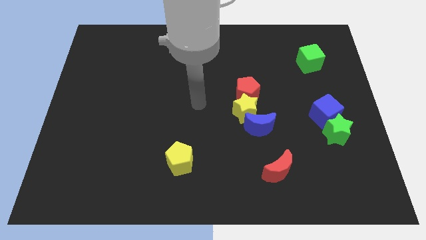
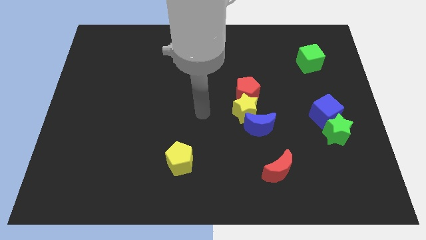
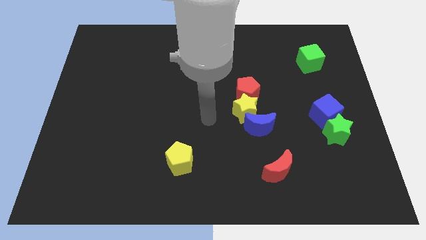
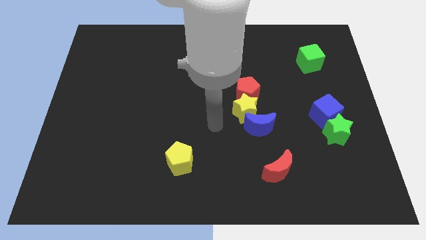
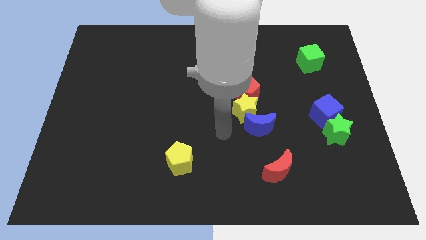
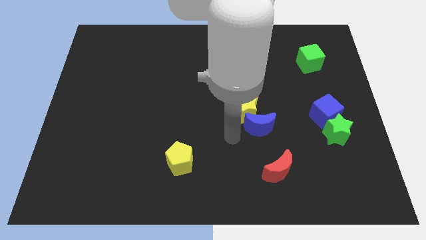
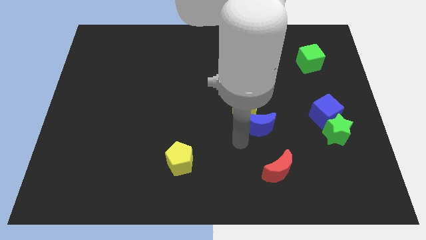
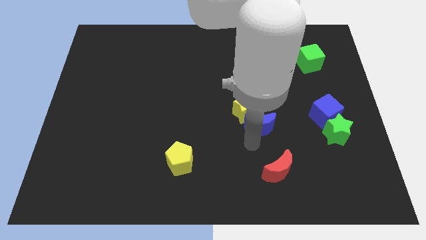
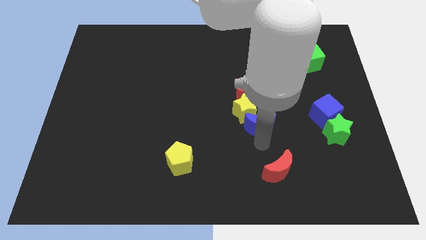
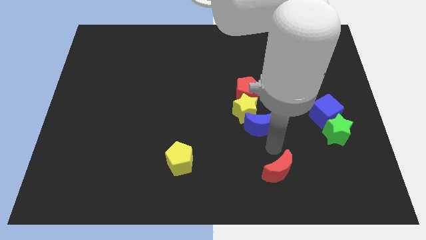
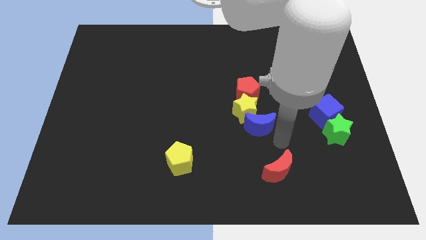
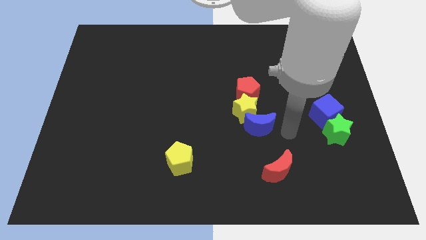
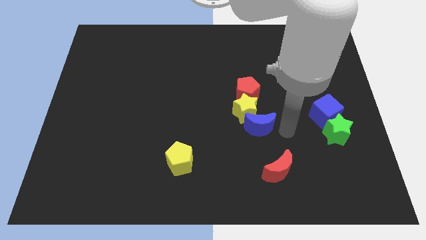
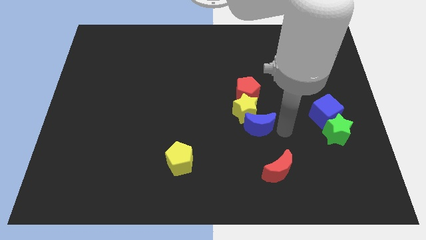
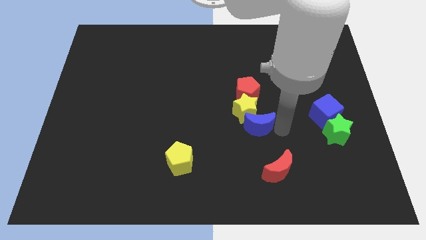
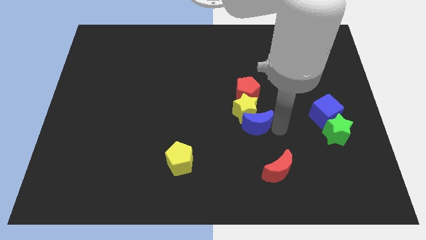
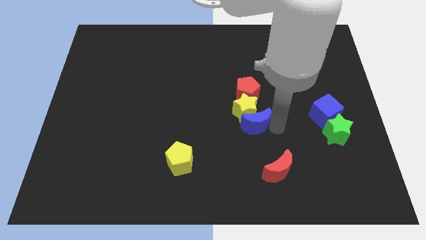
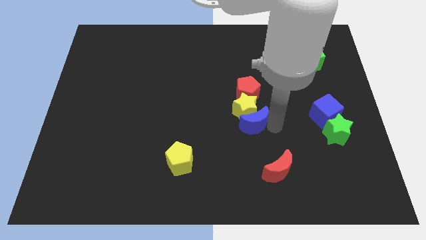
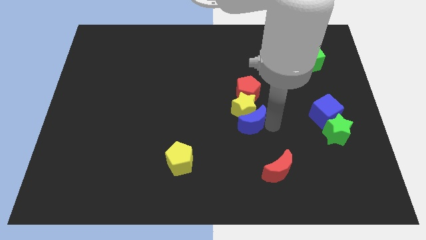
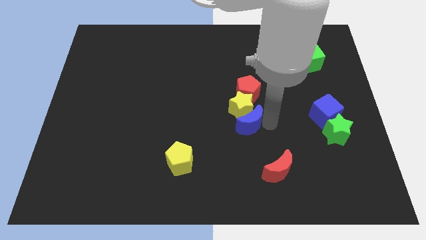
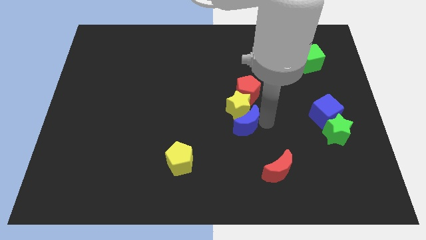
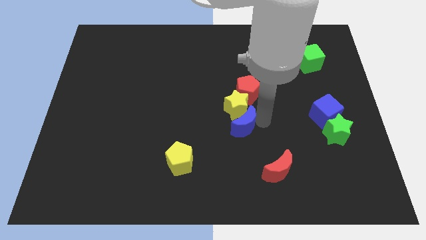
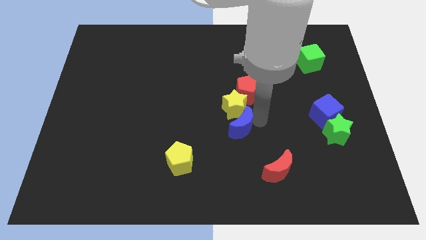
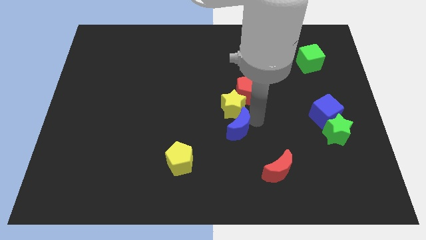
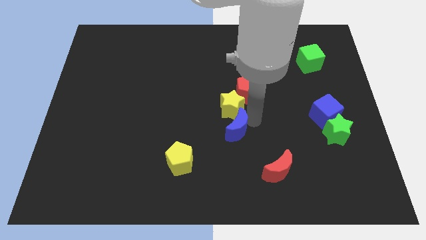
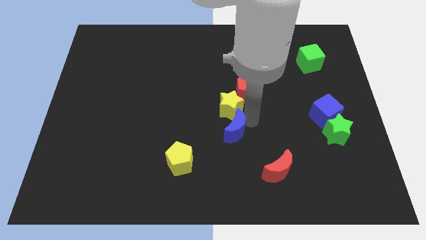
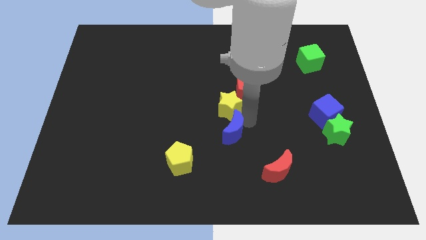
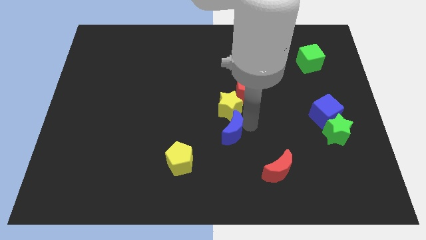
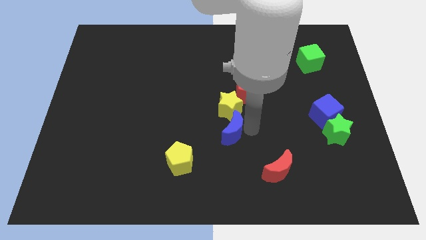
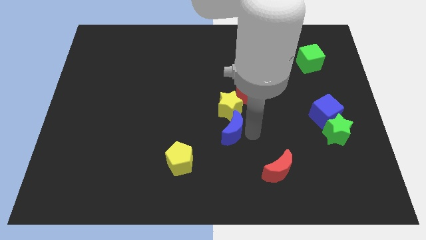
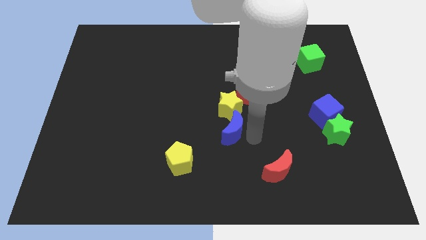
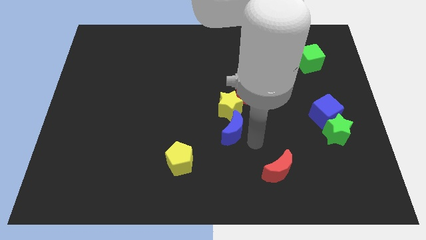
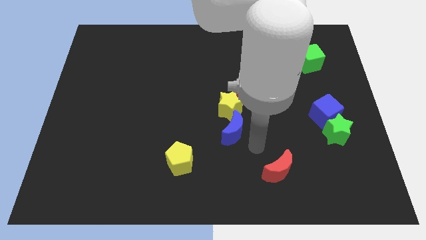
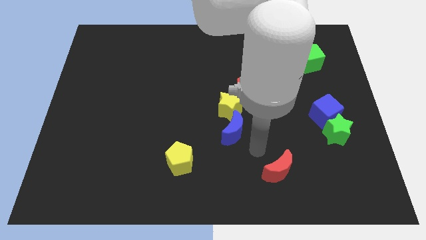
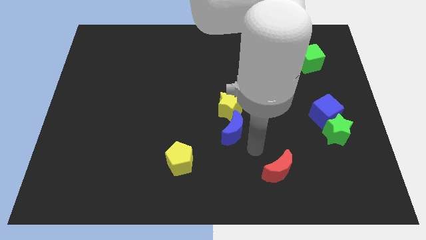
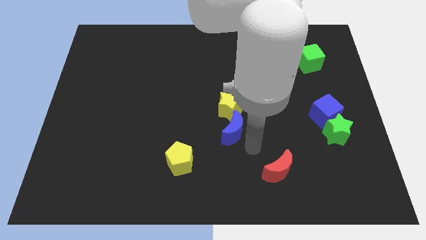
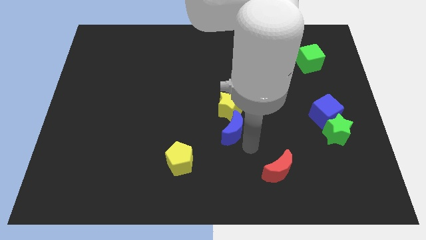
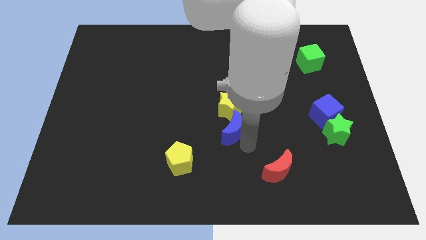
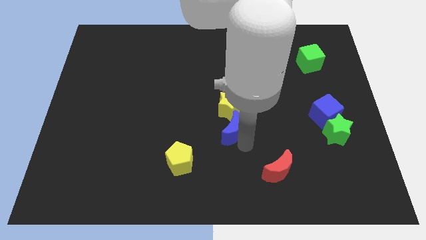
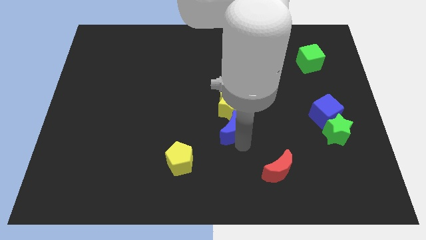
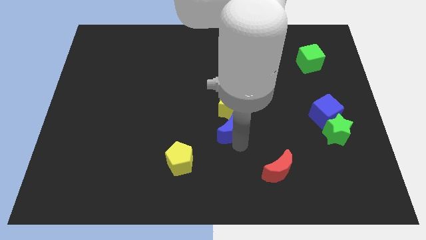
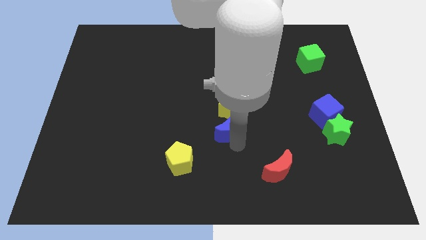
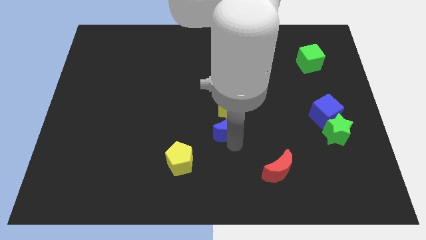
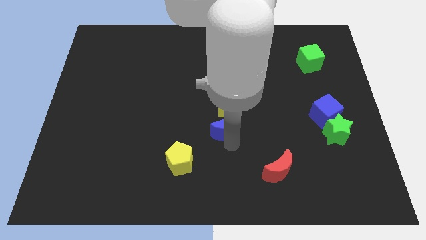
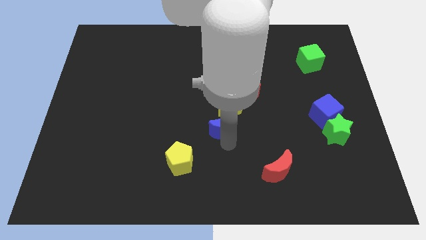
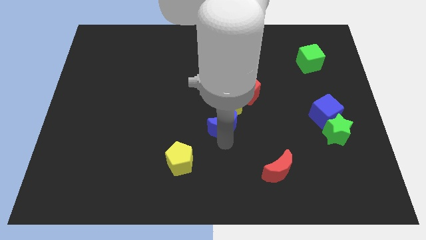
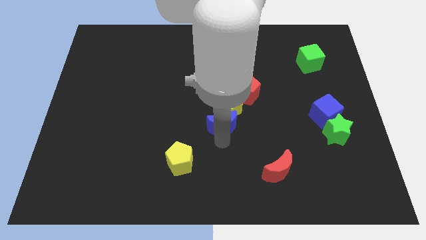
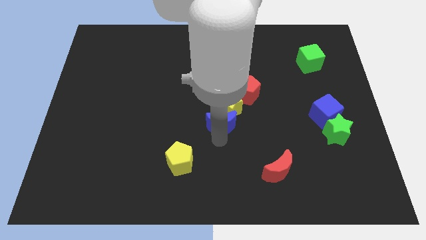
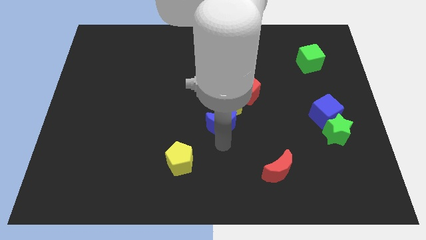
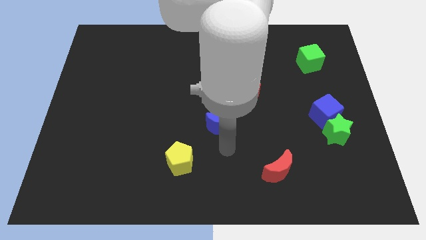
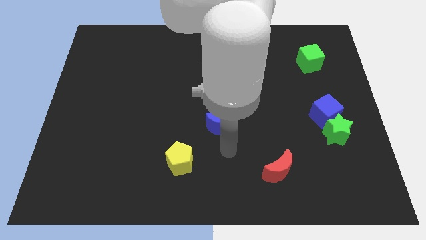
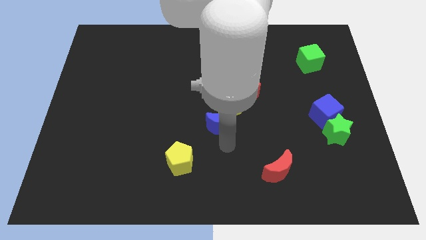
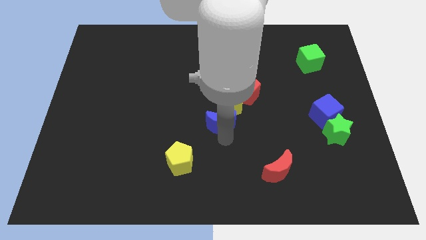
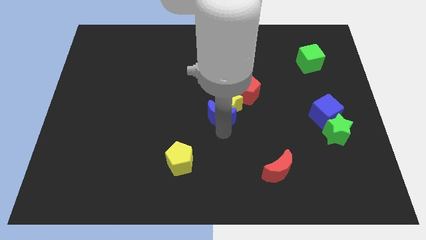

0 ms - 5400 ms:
slightly move the blue moon upwards and left

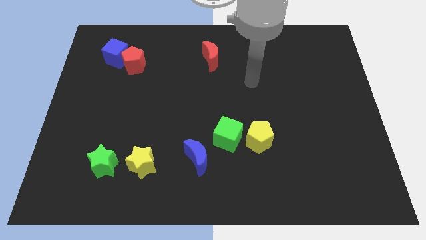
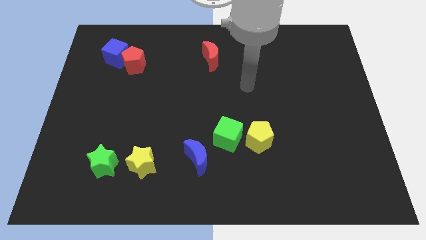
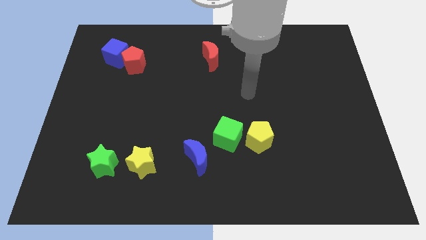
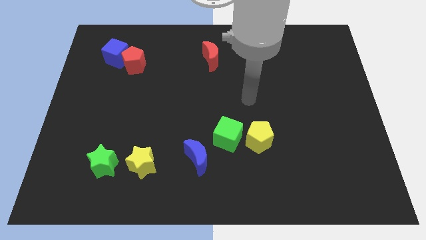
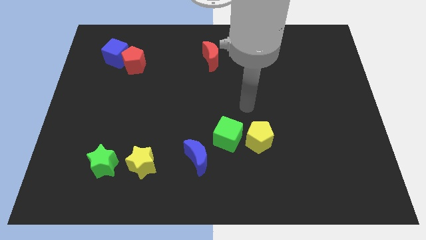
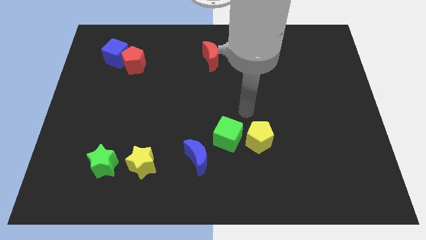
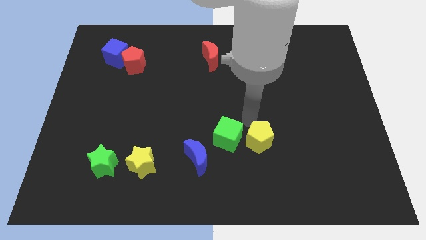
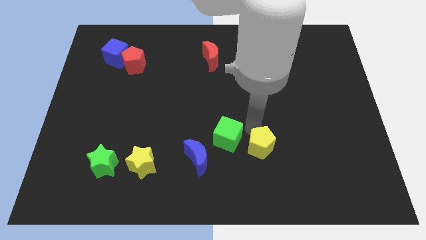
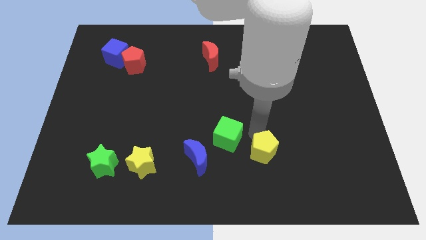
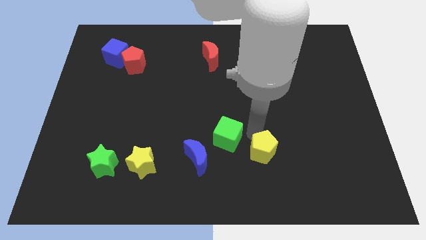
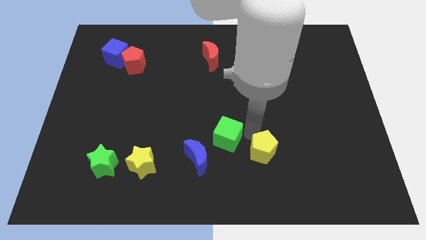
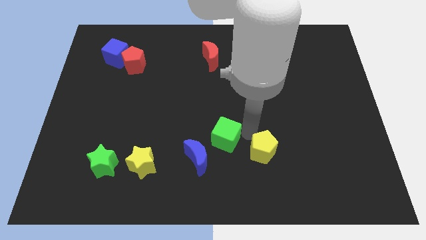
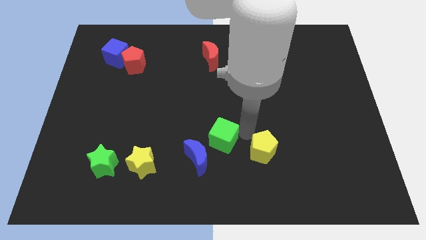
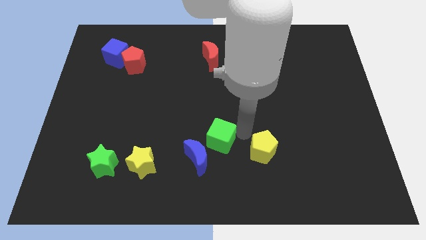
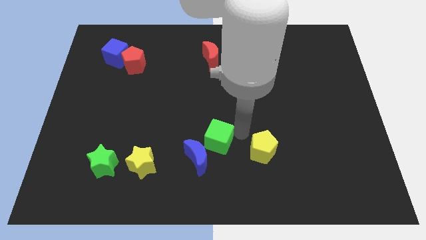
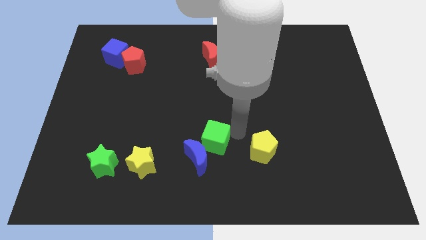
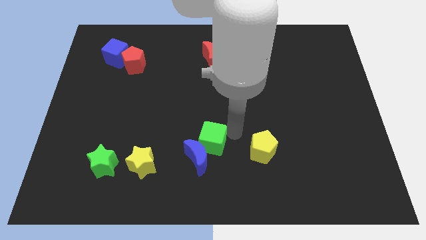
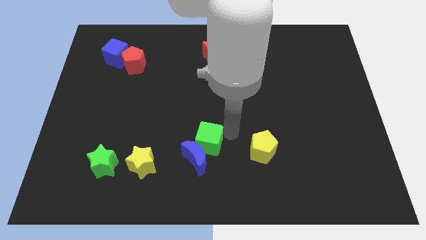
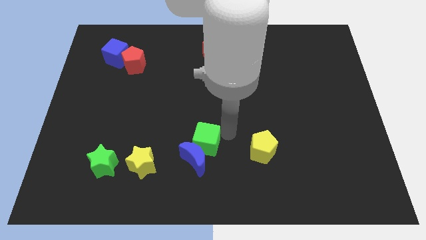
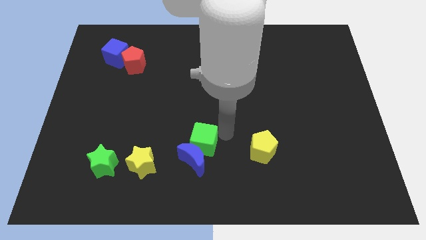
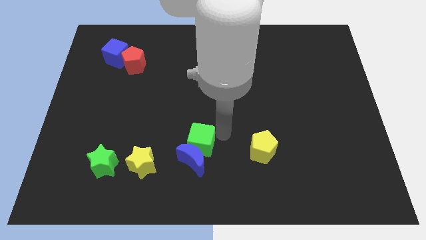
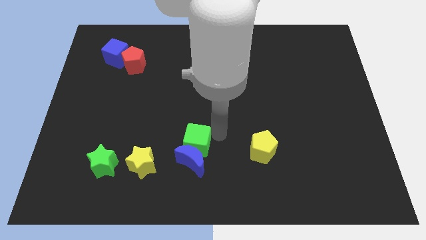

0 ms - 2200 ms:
push the green cube a little bit to the left
